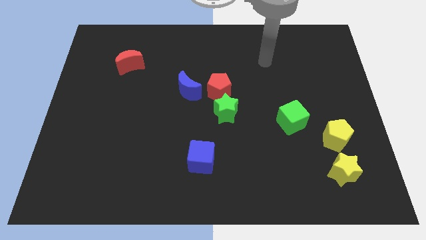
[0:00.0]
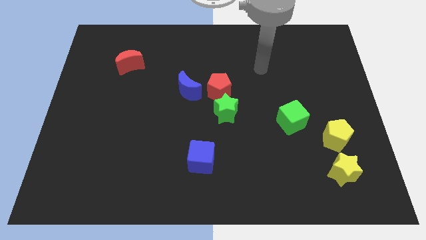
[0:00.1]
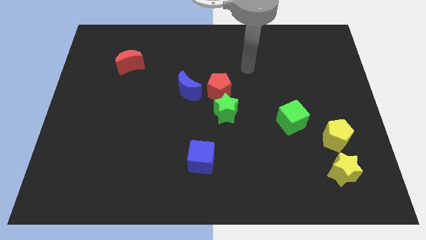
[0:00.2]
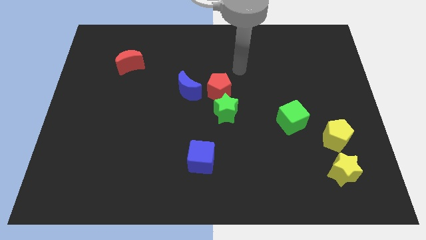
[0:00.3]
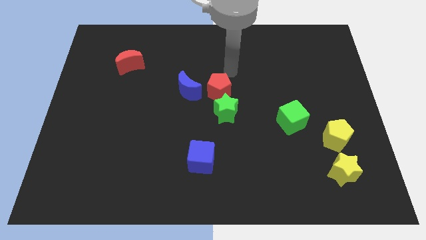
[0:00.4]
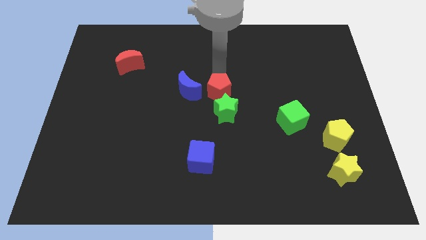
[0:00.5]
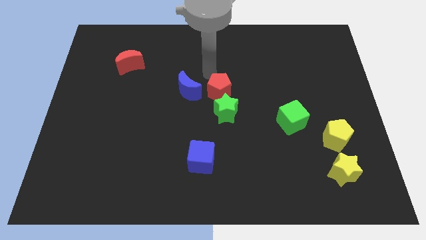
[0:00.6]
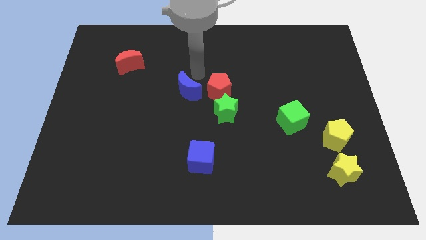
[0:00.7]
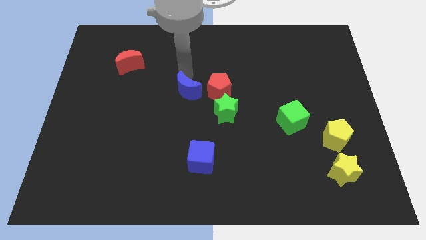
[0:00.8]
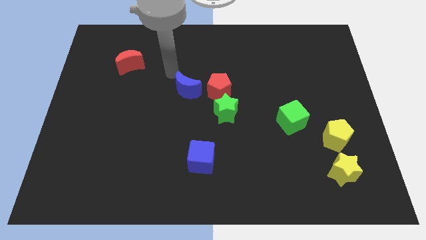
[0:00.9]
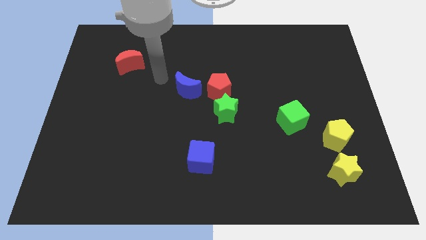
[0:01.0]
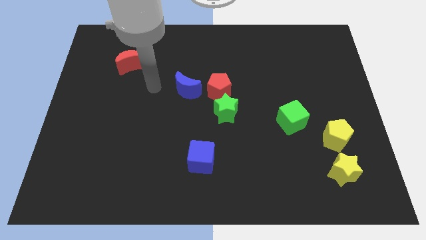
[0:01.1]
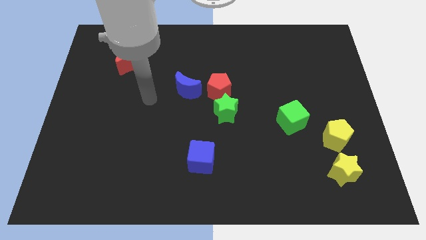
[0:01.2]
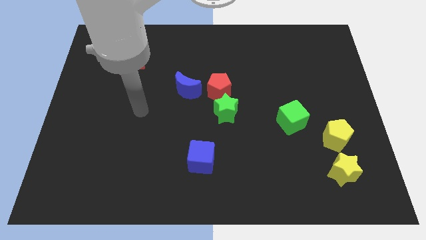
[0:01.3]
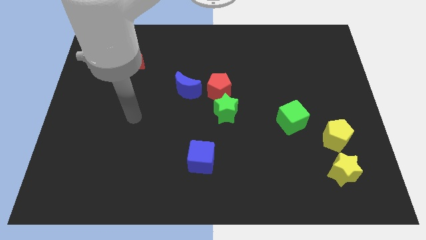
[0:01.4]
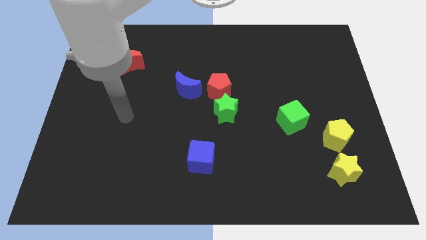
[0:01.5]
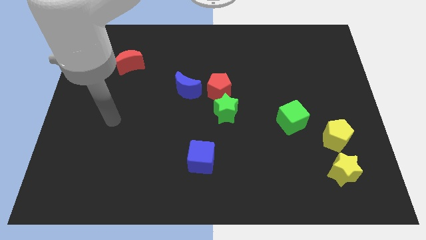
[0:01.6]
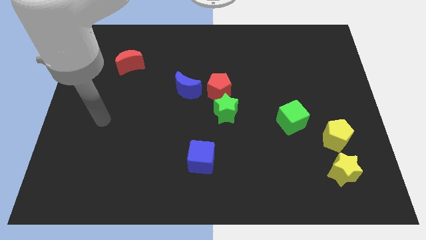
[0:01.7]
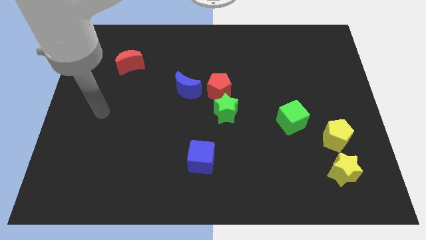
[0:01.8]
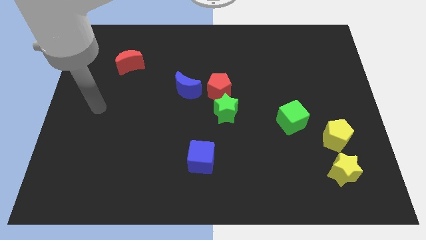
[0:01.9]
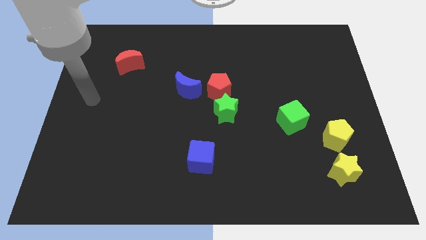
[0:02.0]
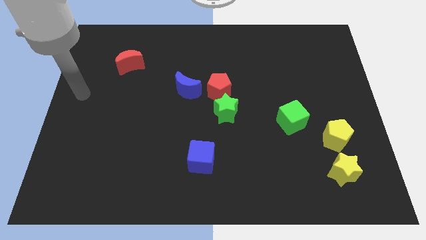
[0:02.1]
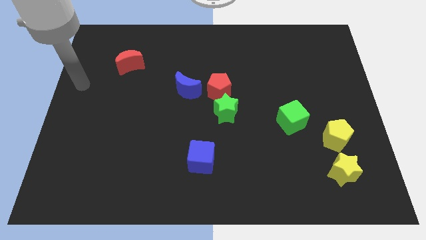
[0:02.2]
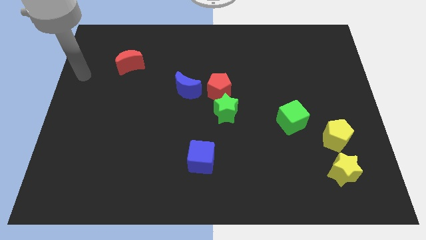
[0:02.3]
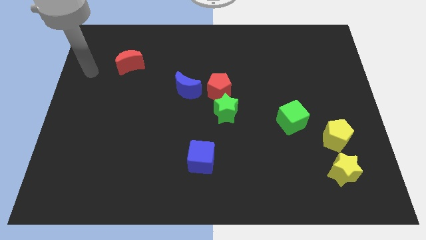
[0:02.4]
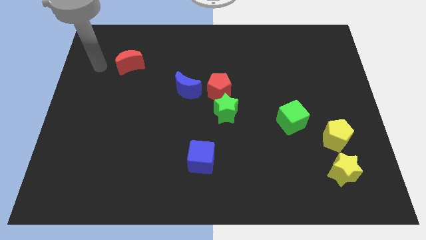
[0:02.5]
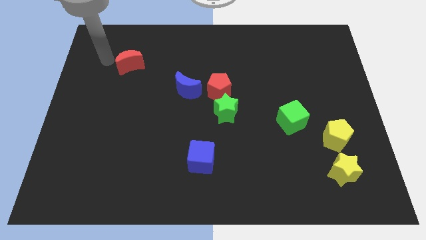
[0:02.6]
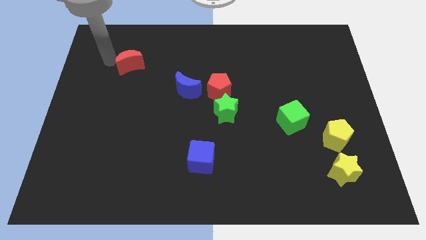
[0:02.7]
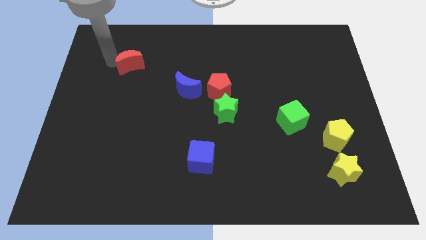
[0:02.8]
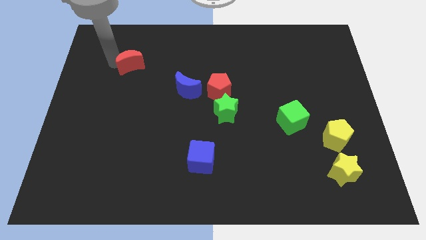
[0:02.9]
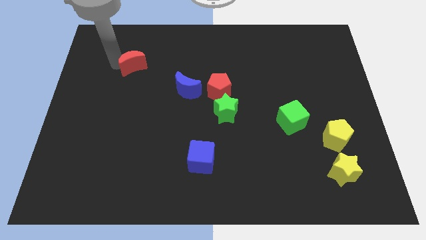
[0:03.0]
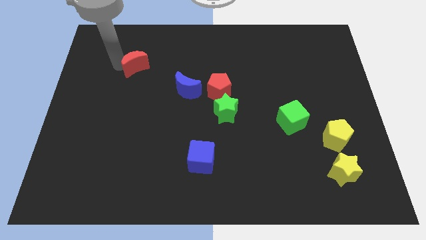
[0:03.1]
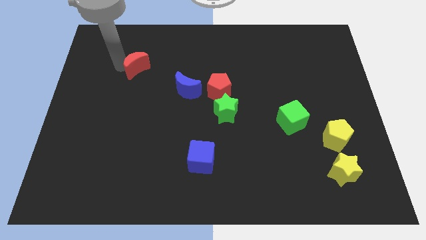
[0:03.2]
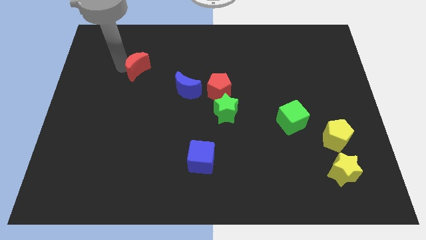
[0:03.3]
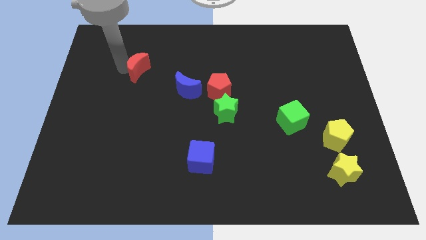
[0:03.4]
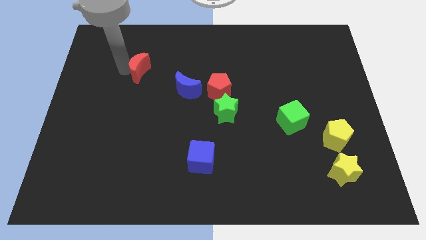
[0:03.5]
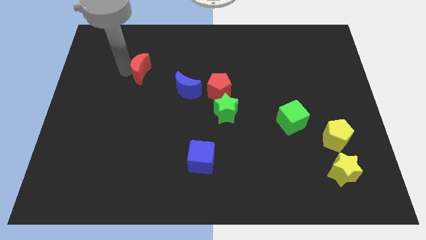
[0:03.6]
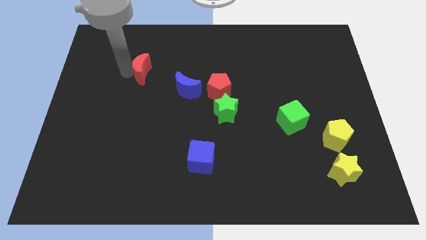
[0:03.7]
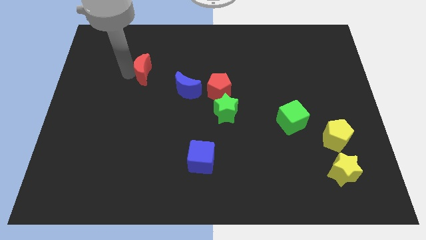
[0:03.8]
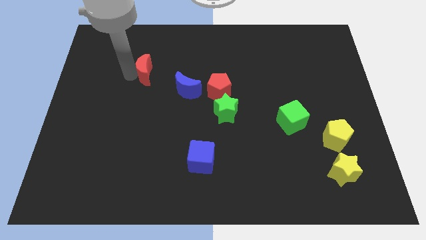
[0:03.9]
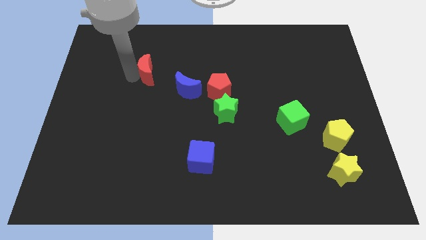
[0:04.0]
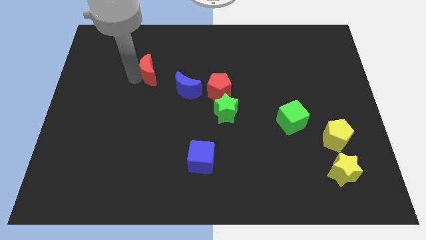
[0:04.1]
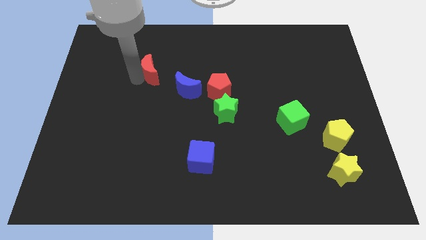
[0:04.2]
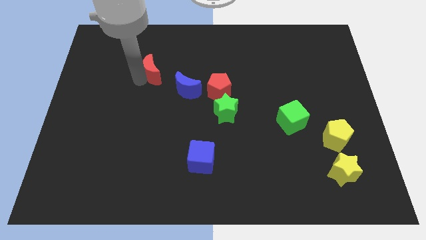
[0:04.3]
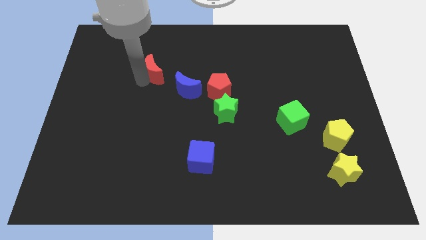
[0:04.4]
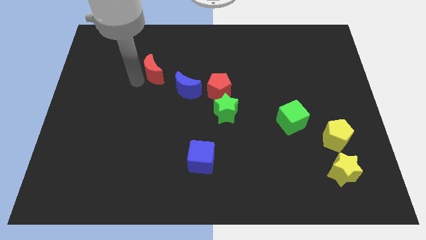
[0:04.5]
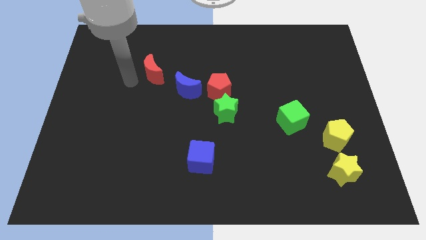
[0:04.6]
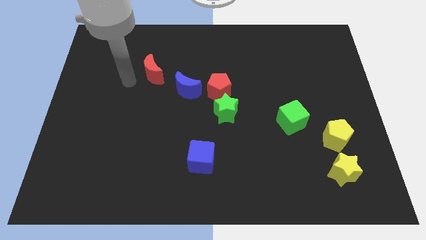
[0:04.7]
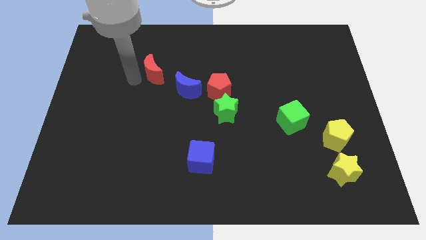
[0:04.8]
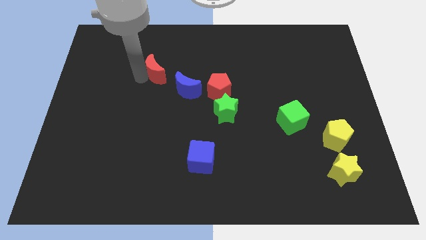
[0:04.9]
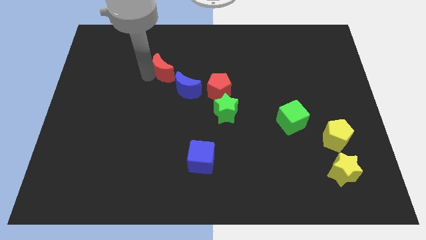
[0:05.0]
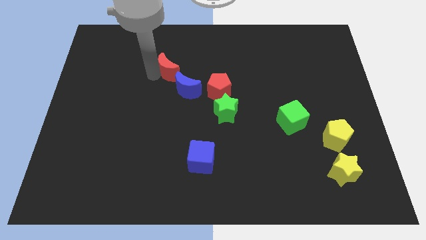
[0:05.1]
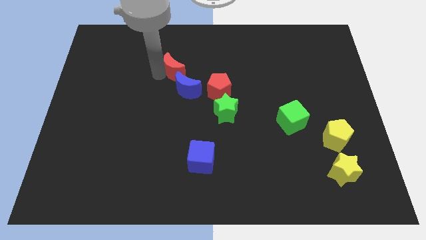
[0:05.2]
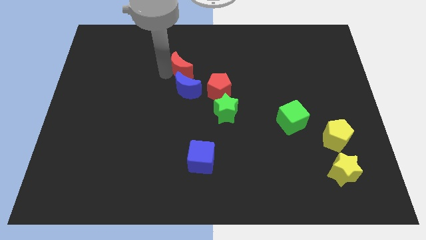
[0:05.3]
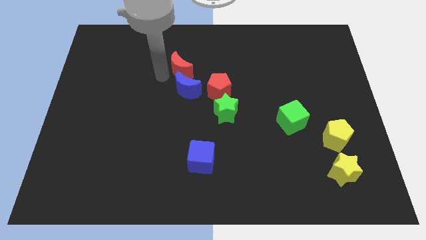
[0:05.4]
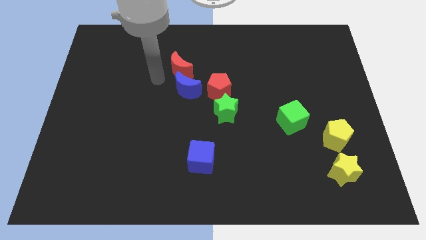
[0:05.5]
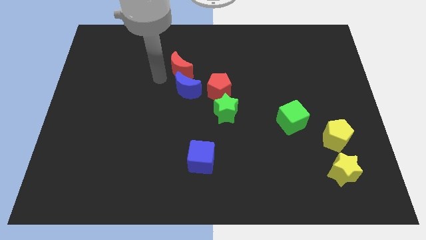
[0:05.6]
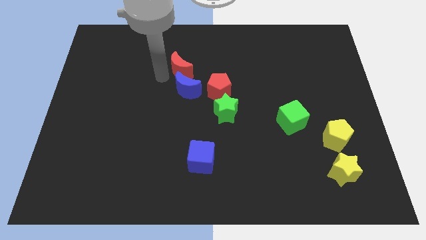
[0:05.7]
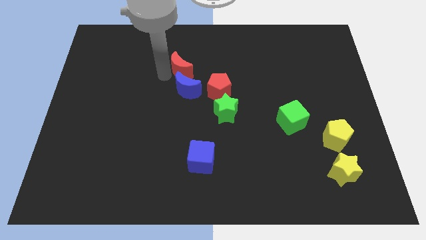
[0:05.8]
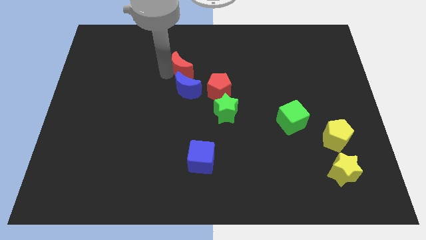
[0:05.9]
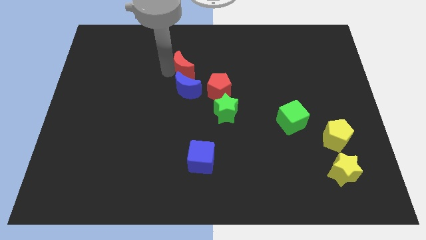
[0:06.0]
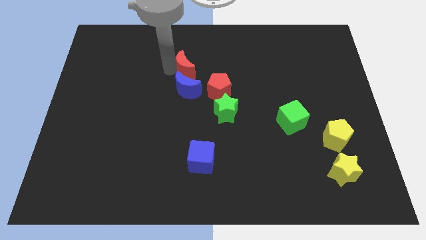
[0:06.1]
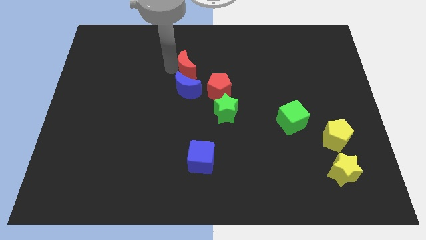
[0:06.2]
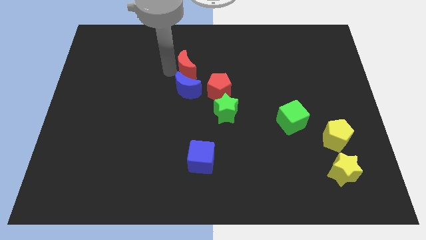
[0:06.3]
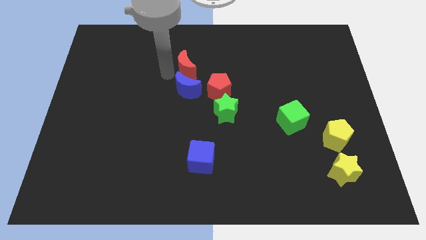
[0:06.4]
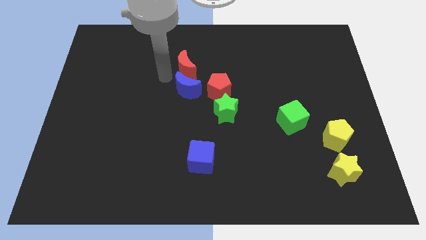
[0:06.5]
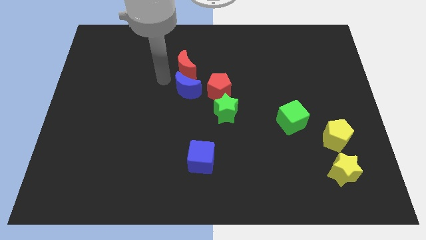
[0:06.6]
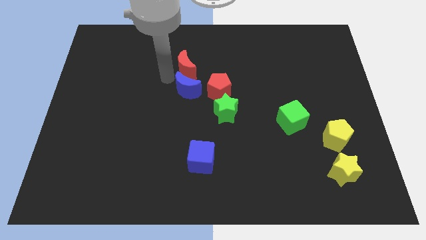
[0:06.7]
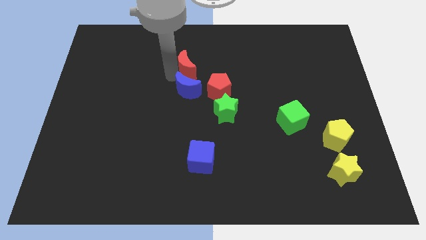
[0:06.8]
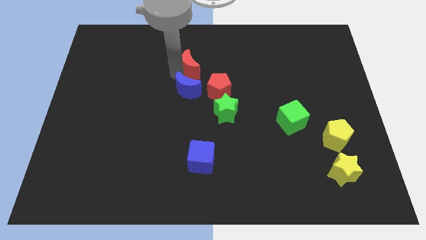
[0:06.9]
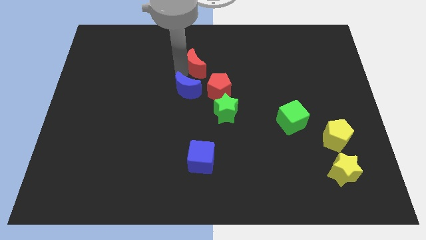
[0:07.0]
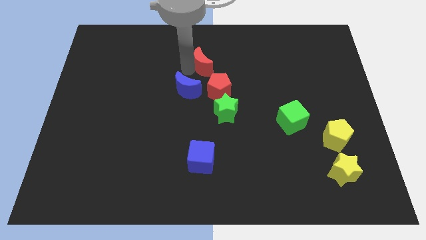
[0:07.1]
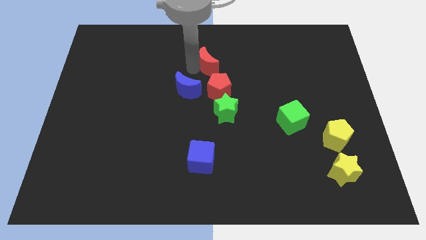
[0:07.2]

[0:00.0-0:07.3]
slide the red moon right

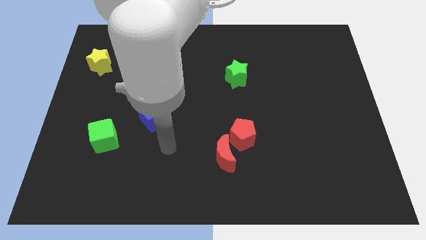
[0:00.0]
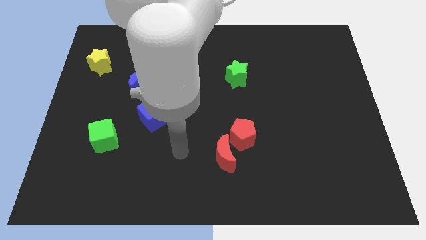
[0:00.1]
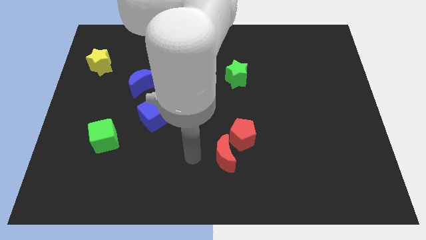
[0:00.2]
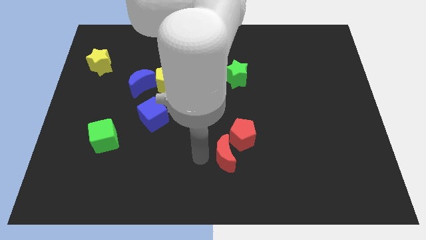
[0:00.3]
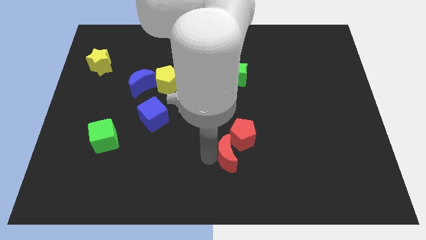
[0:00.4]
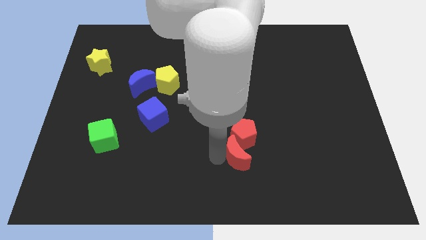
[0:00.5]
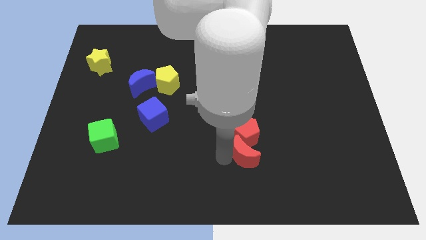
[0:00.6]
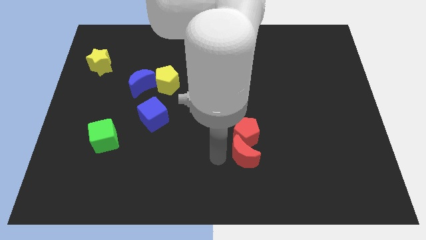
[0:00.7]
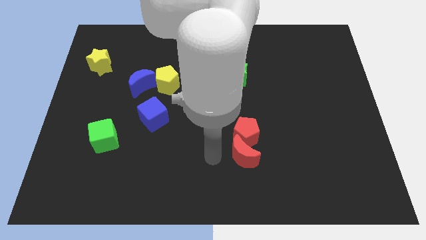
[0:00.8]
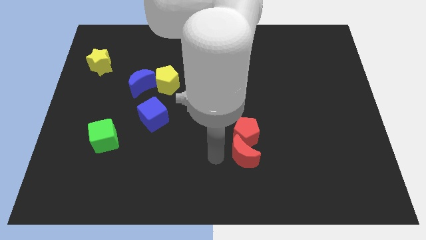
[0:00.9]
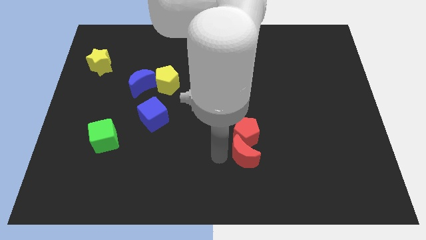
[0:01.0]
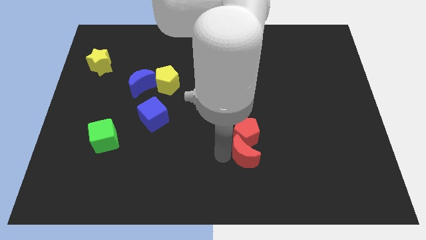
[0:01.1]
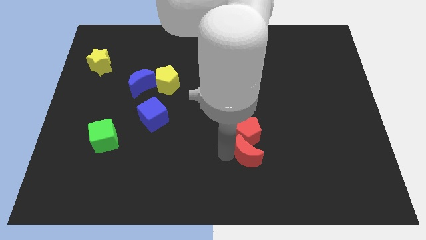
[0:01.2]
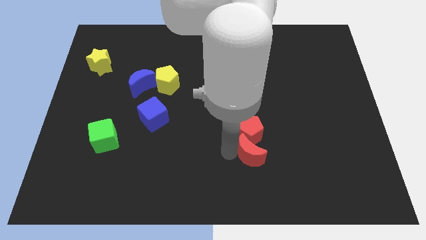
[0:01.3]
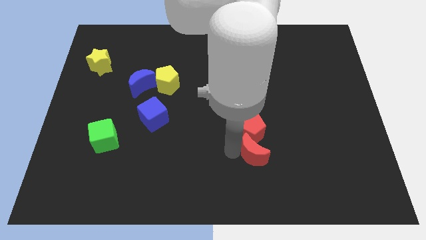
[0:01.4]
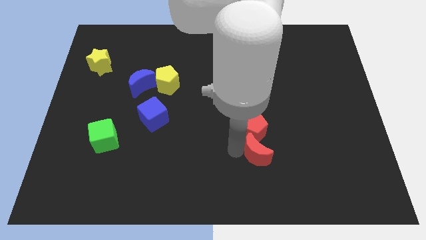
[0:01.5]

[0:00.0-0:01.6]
slightly push the red moon to the right
